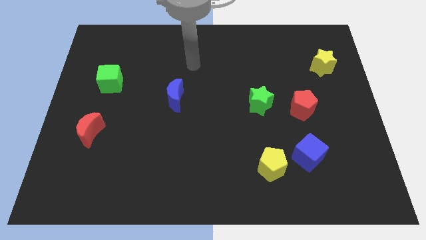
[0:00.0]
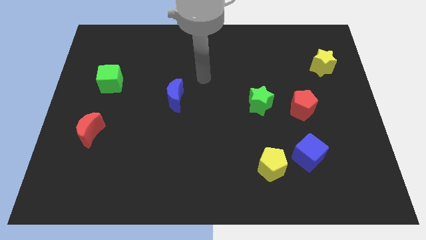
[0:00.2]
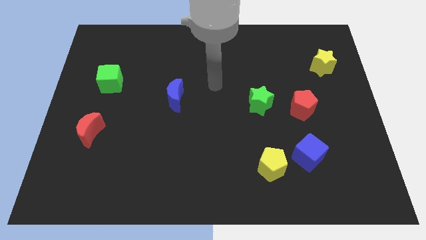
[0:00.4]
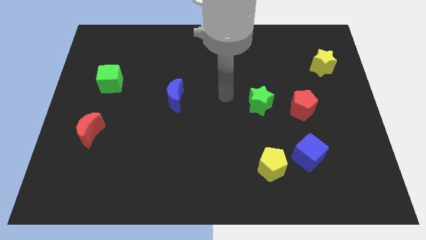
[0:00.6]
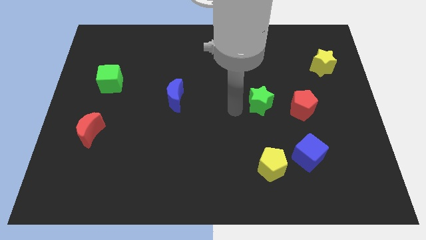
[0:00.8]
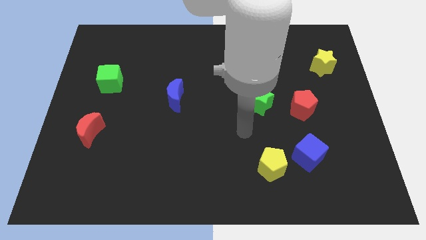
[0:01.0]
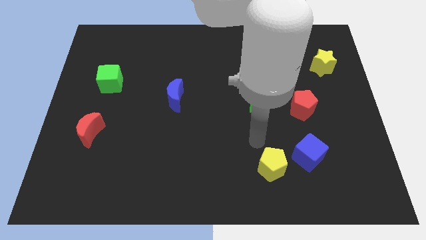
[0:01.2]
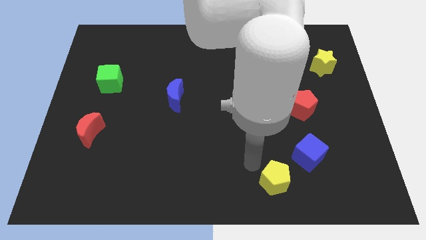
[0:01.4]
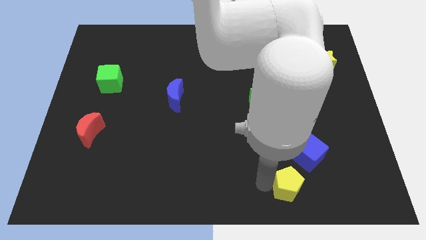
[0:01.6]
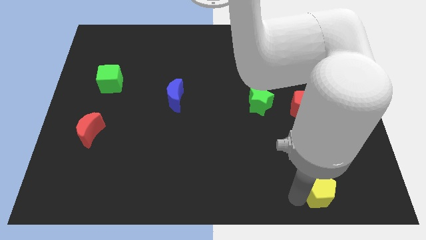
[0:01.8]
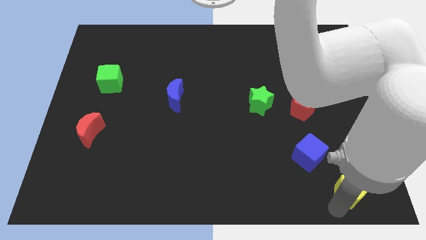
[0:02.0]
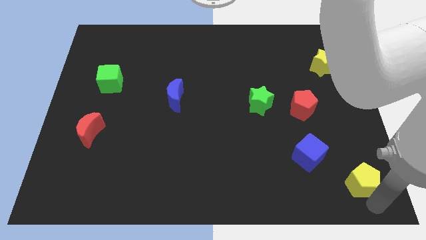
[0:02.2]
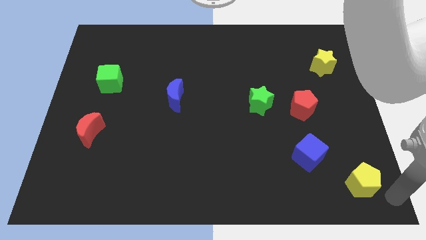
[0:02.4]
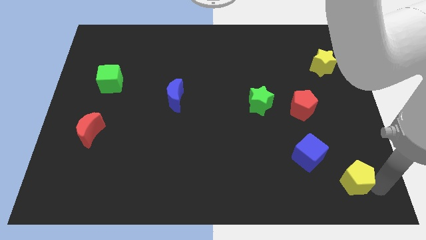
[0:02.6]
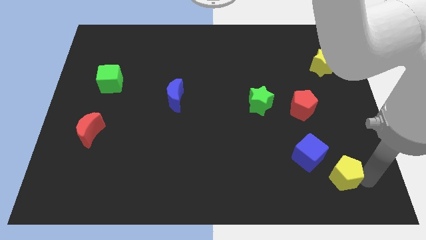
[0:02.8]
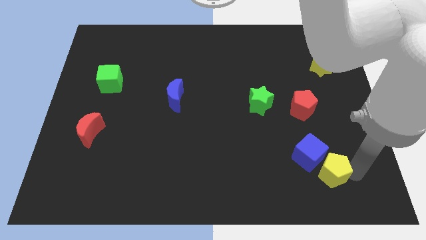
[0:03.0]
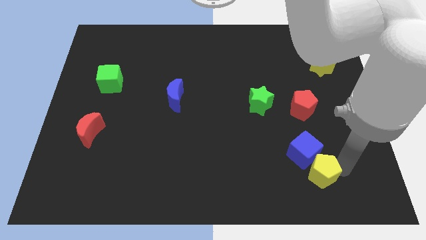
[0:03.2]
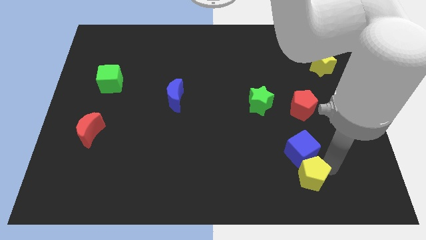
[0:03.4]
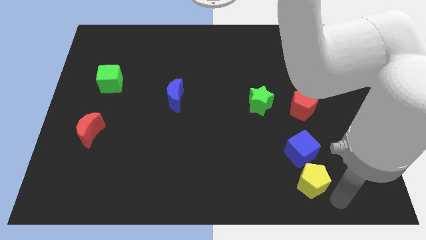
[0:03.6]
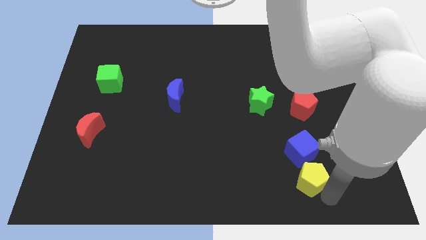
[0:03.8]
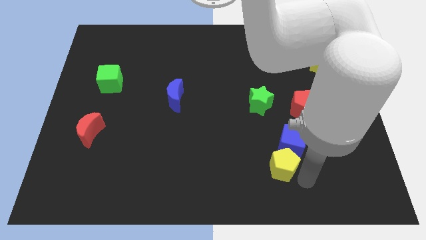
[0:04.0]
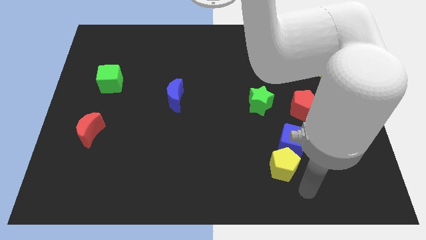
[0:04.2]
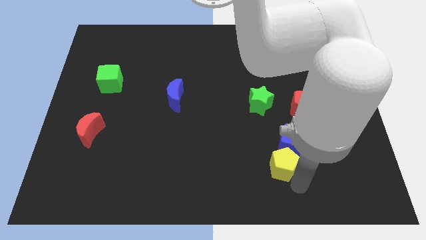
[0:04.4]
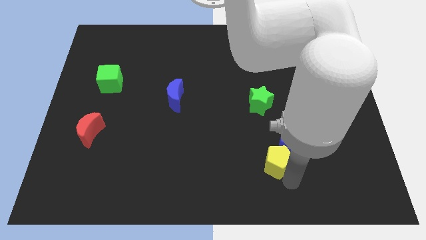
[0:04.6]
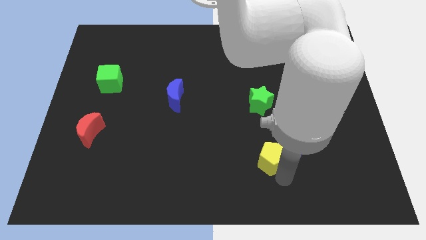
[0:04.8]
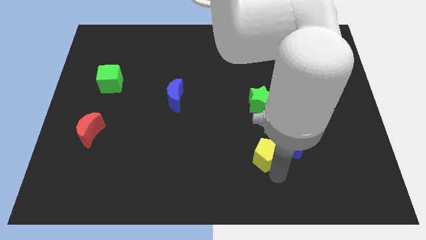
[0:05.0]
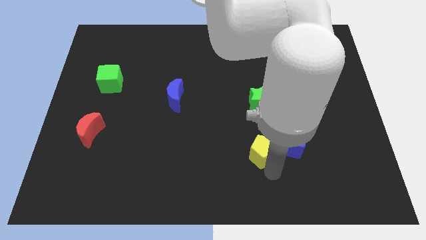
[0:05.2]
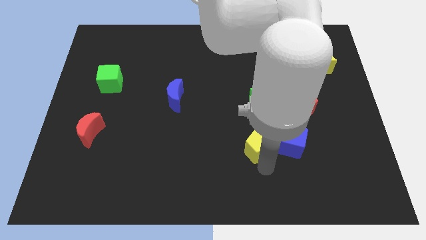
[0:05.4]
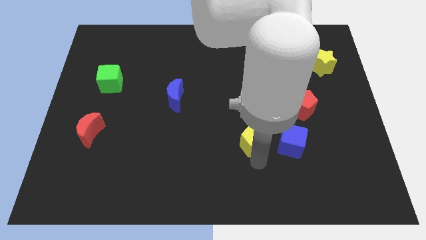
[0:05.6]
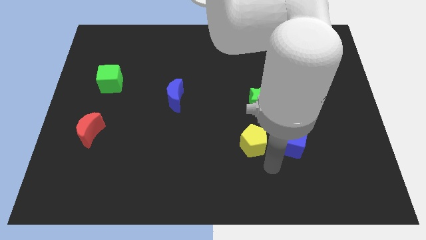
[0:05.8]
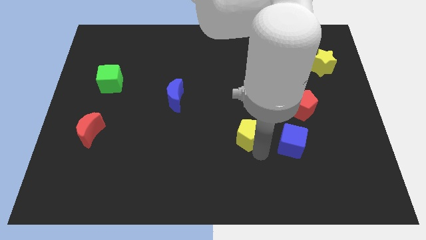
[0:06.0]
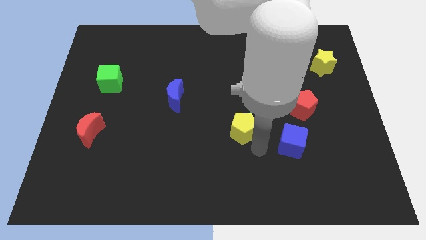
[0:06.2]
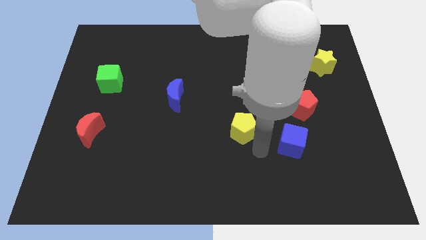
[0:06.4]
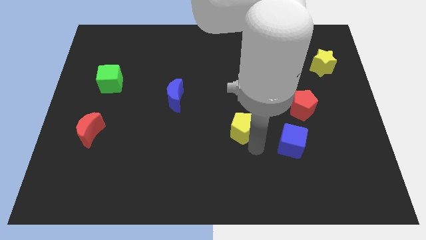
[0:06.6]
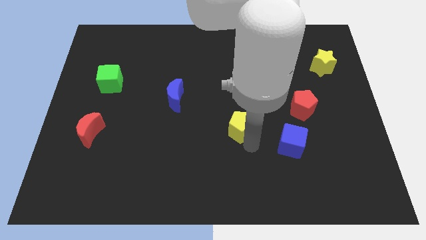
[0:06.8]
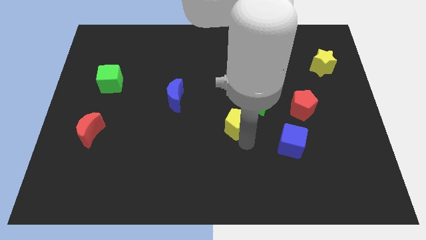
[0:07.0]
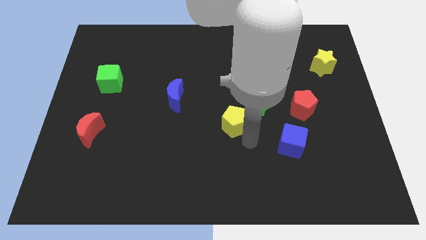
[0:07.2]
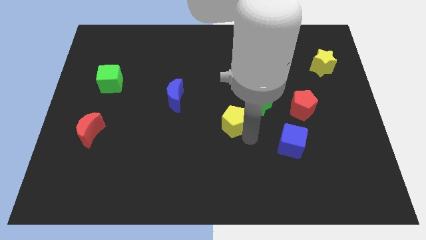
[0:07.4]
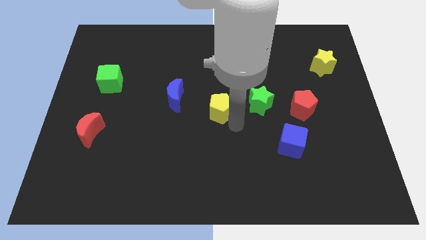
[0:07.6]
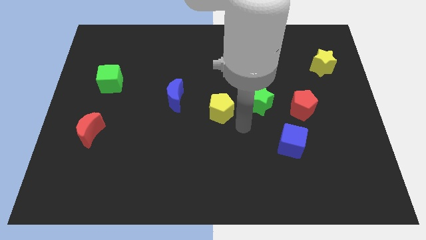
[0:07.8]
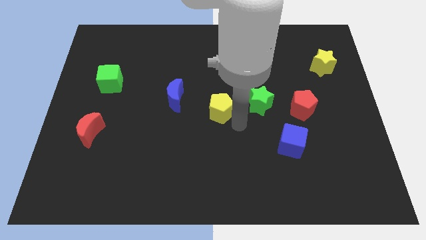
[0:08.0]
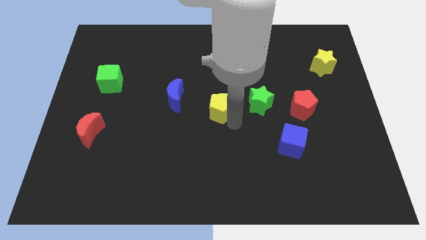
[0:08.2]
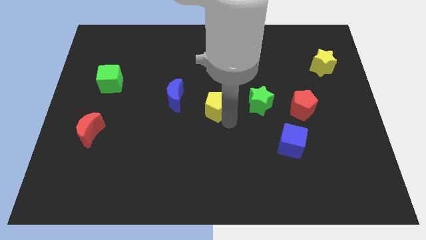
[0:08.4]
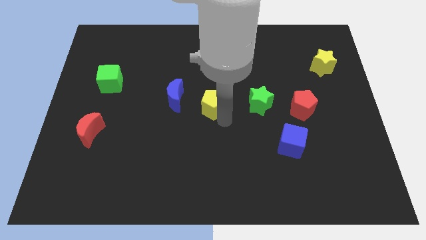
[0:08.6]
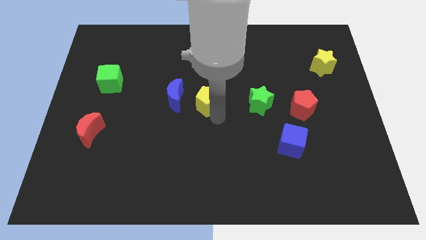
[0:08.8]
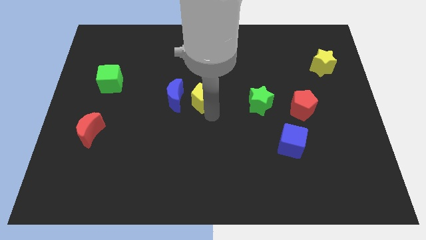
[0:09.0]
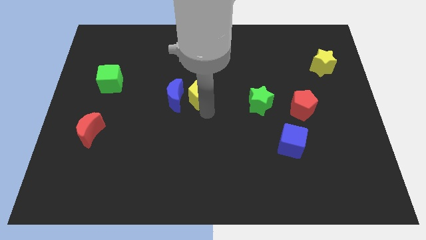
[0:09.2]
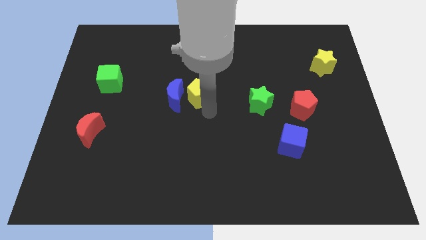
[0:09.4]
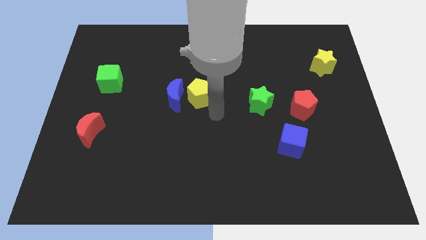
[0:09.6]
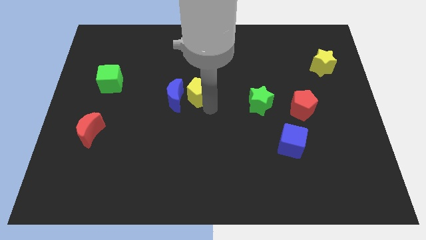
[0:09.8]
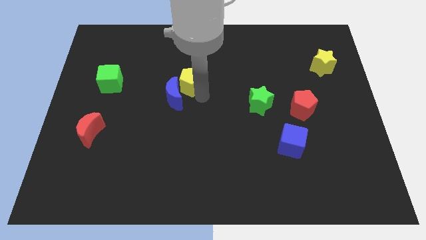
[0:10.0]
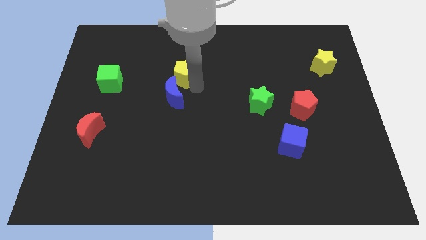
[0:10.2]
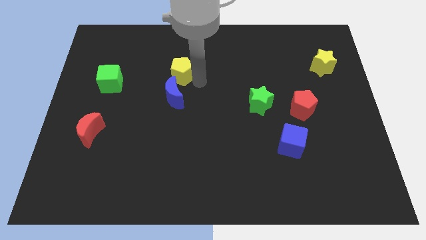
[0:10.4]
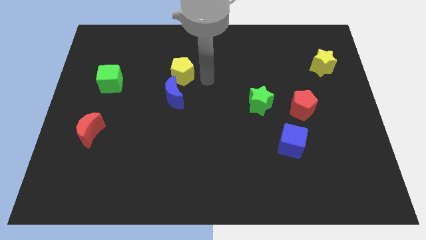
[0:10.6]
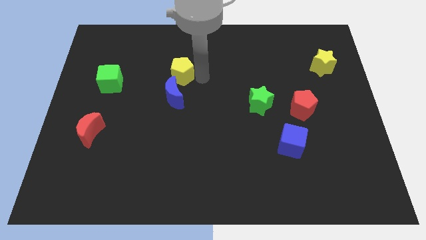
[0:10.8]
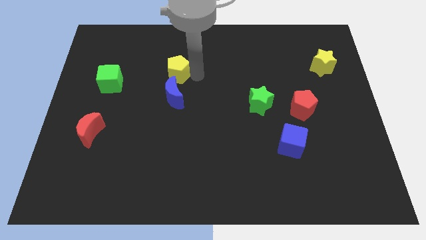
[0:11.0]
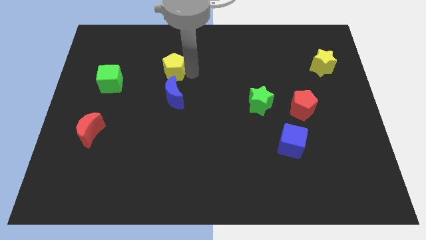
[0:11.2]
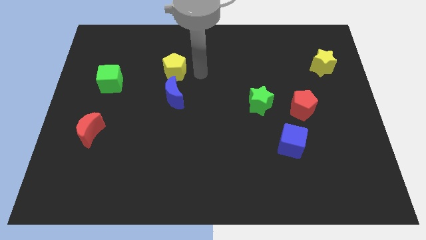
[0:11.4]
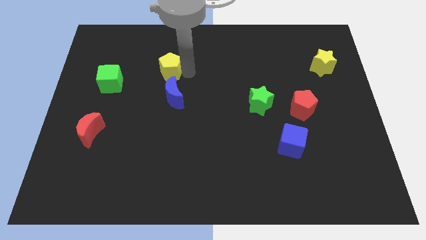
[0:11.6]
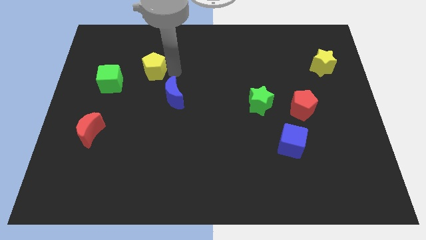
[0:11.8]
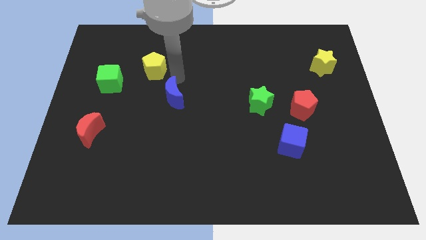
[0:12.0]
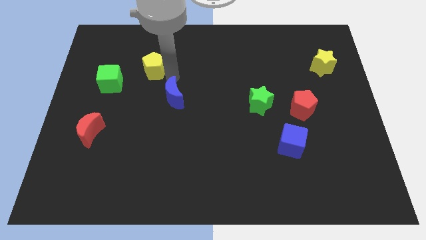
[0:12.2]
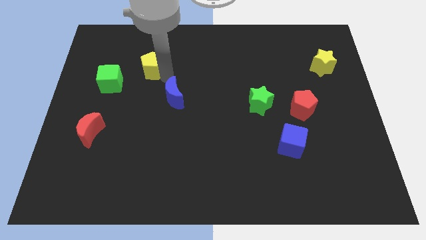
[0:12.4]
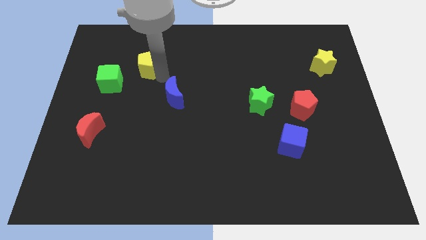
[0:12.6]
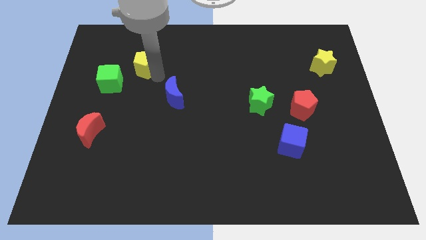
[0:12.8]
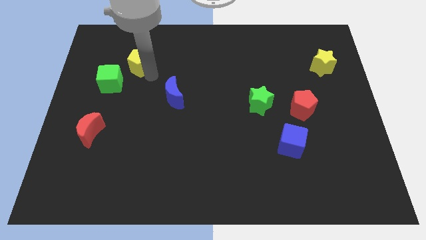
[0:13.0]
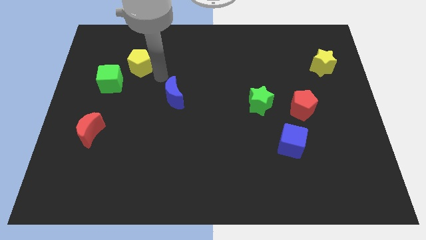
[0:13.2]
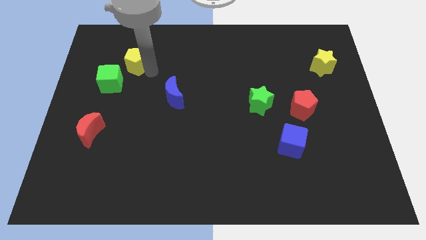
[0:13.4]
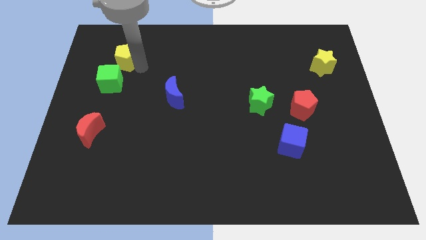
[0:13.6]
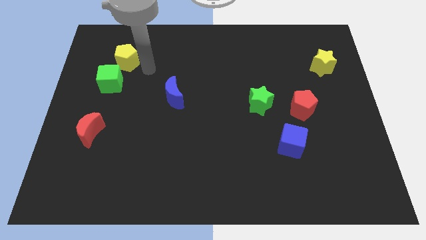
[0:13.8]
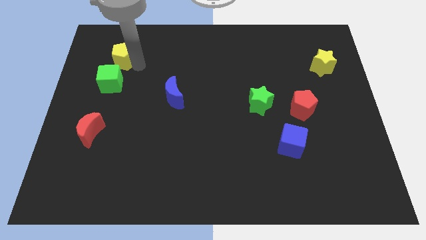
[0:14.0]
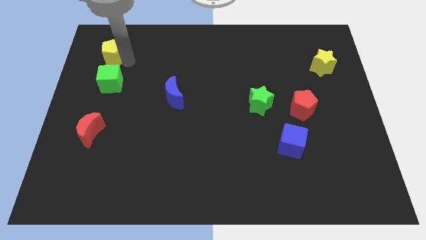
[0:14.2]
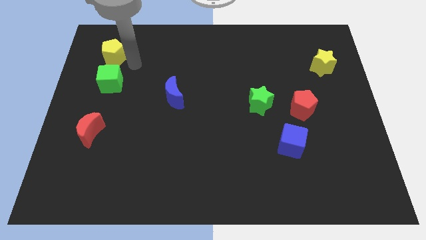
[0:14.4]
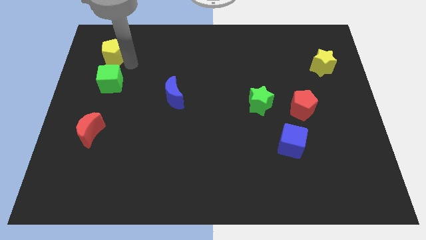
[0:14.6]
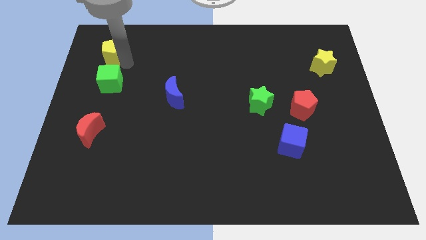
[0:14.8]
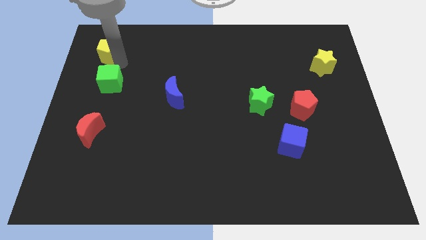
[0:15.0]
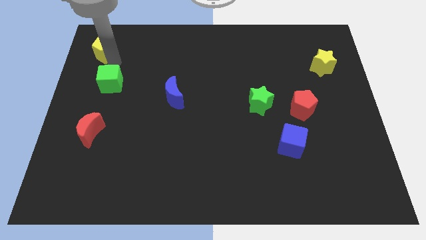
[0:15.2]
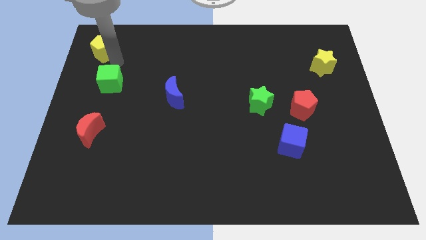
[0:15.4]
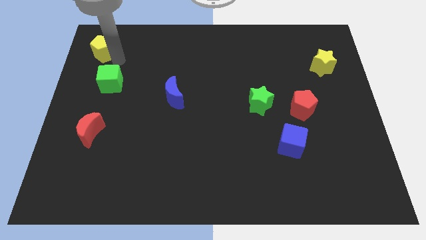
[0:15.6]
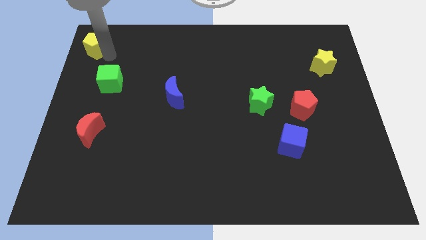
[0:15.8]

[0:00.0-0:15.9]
slide the yellow pentagon to the top left corner
